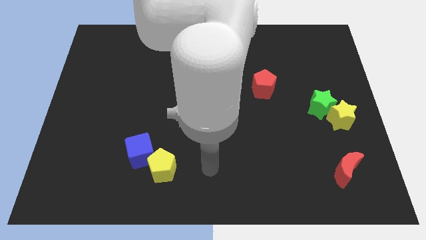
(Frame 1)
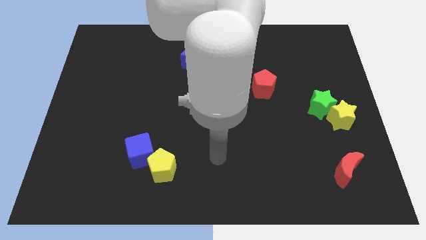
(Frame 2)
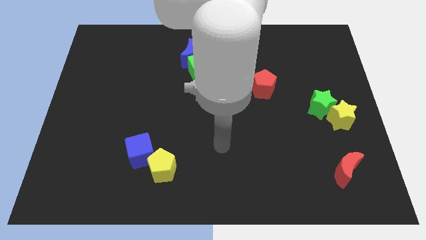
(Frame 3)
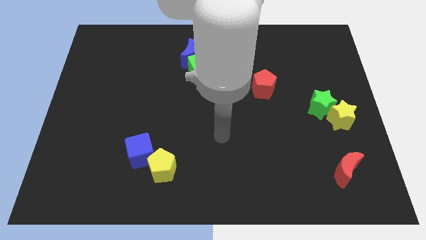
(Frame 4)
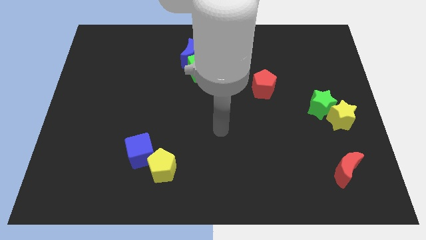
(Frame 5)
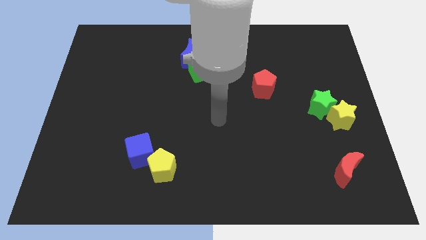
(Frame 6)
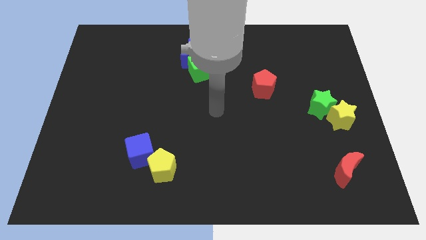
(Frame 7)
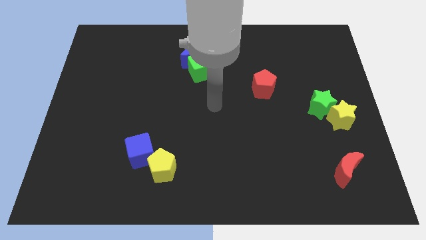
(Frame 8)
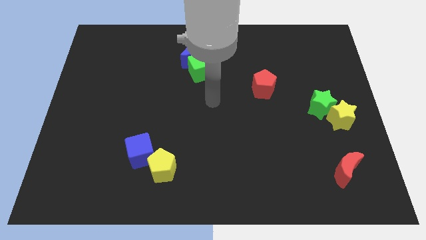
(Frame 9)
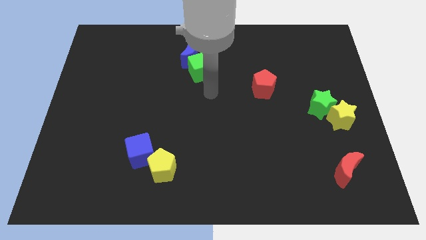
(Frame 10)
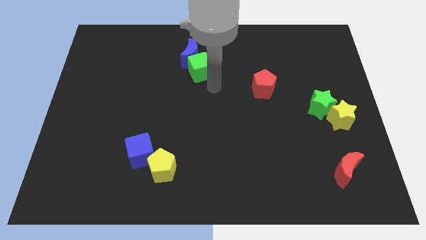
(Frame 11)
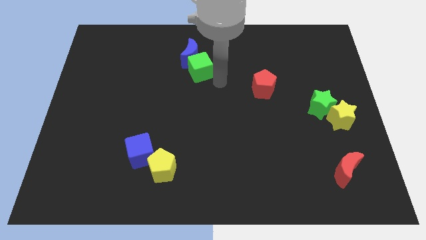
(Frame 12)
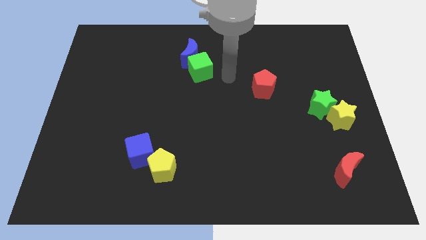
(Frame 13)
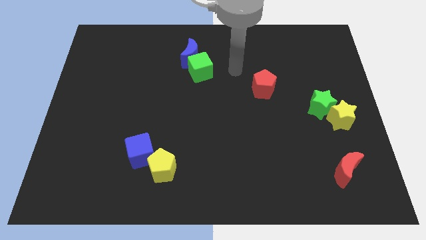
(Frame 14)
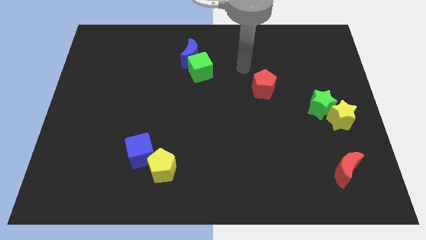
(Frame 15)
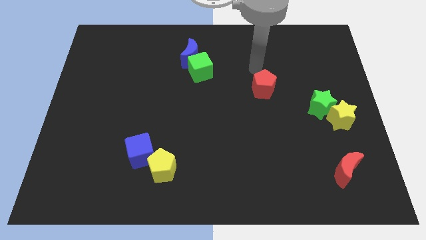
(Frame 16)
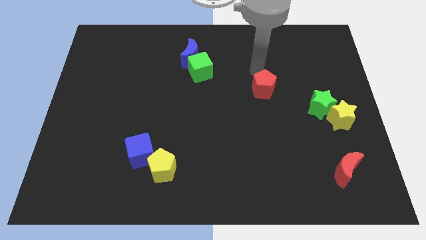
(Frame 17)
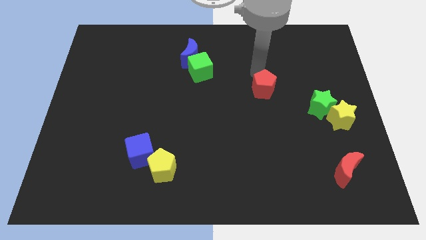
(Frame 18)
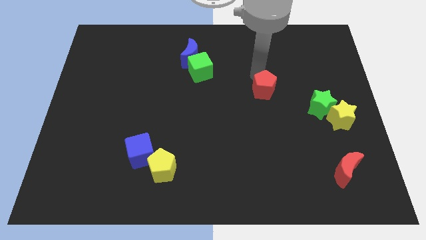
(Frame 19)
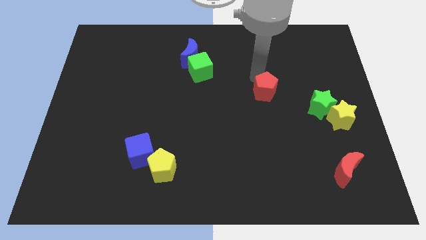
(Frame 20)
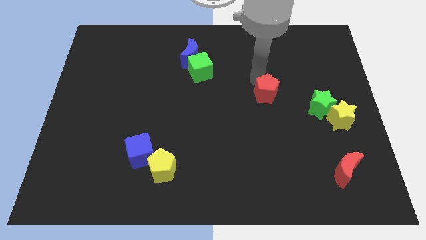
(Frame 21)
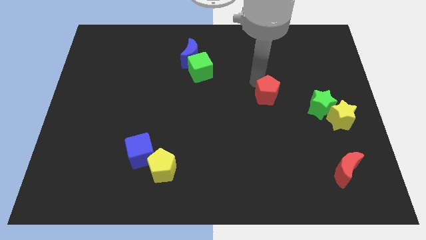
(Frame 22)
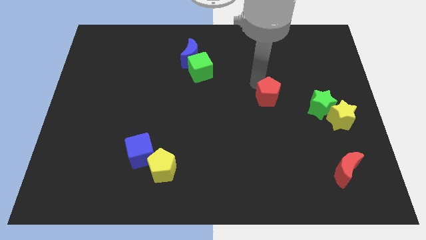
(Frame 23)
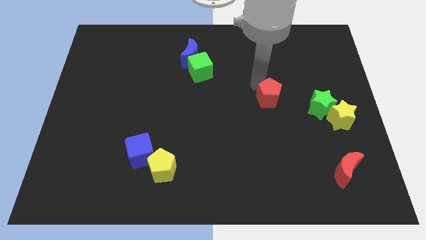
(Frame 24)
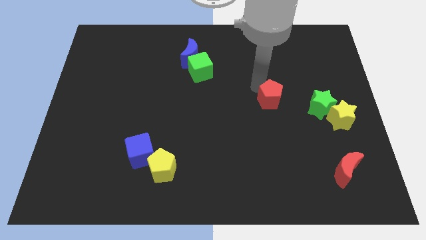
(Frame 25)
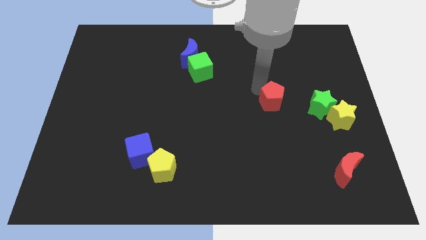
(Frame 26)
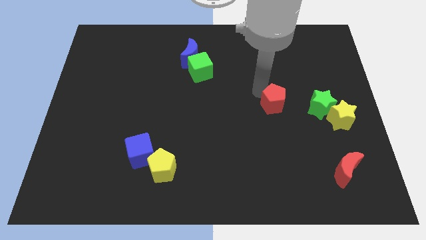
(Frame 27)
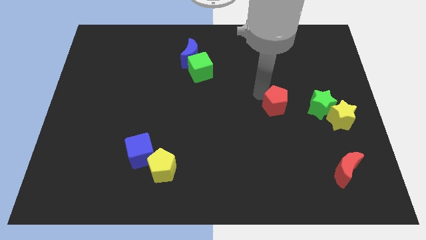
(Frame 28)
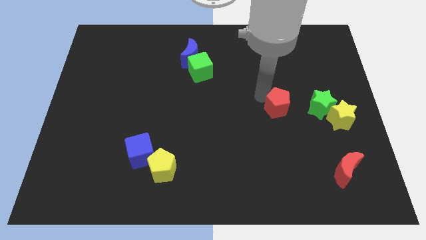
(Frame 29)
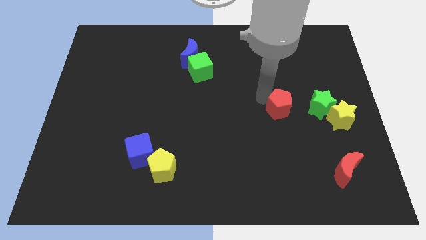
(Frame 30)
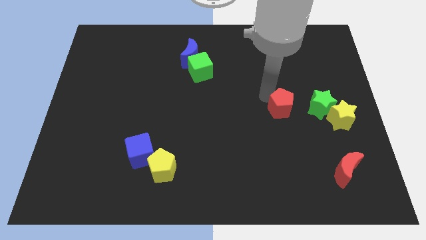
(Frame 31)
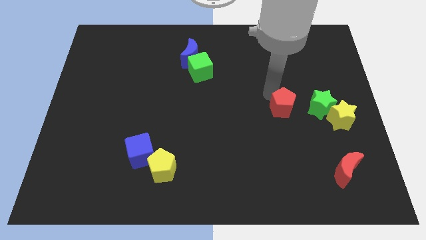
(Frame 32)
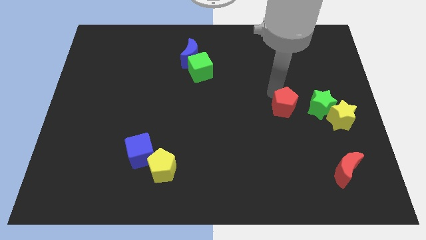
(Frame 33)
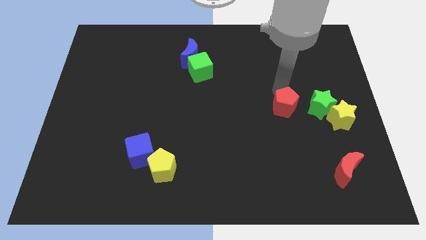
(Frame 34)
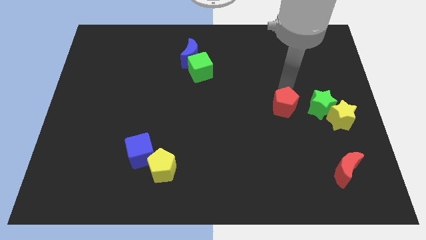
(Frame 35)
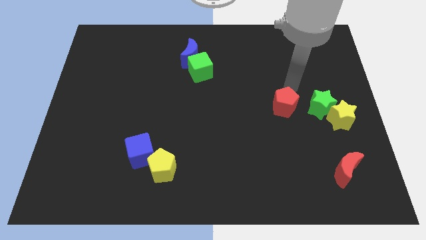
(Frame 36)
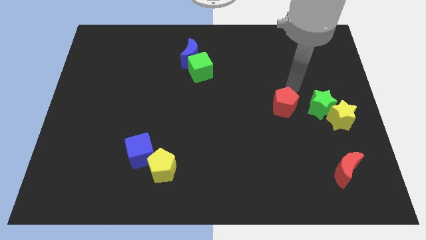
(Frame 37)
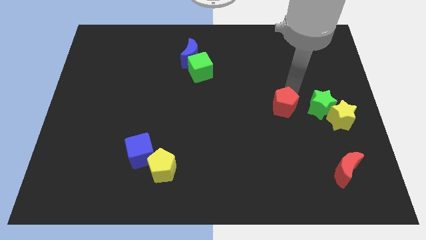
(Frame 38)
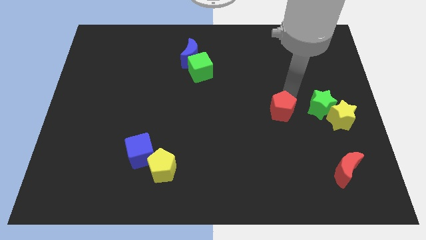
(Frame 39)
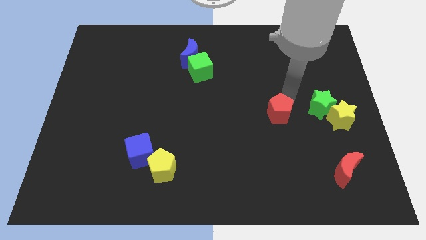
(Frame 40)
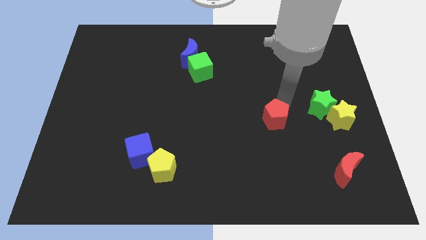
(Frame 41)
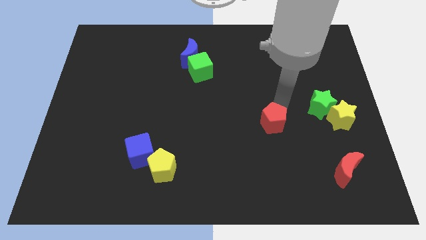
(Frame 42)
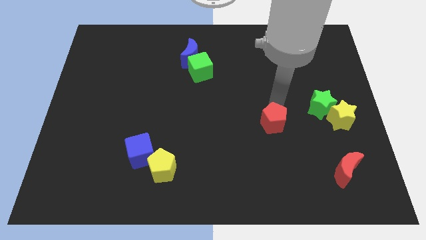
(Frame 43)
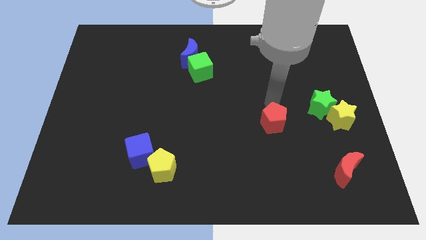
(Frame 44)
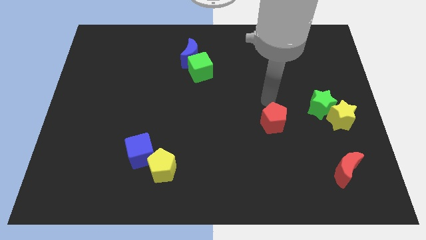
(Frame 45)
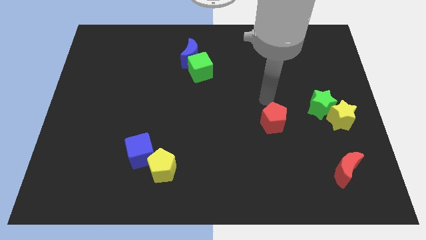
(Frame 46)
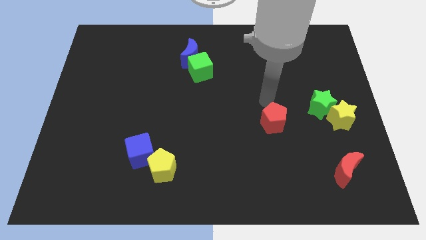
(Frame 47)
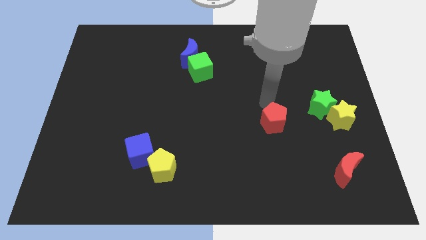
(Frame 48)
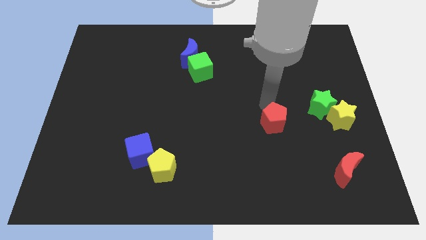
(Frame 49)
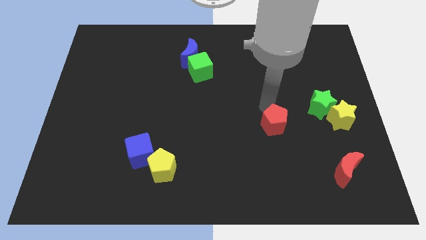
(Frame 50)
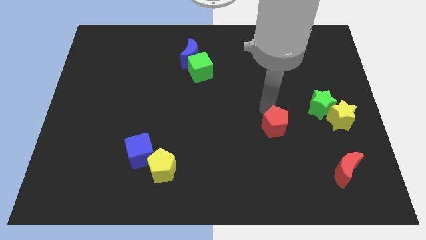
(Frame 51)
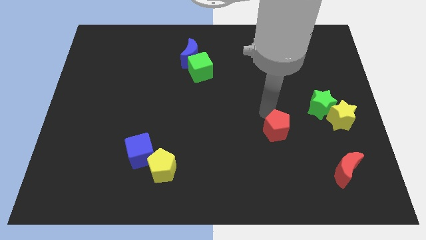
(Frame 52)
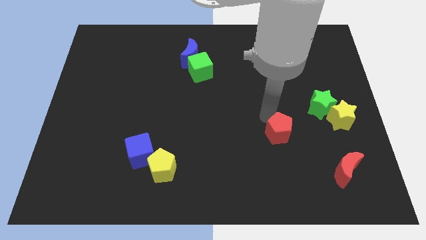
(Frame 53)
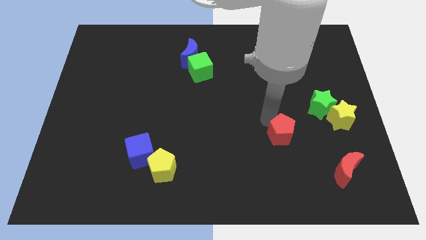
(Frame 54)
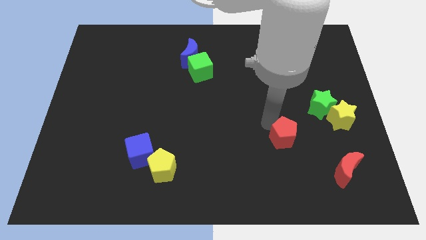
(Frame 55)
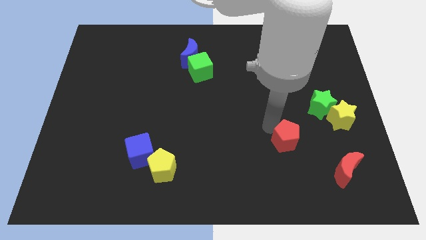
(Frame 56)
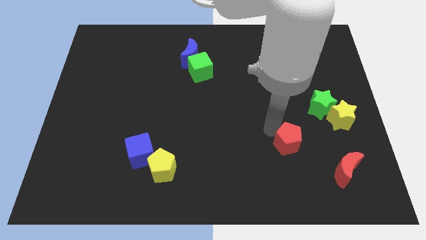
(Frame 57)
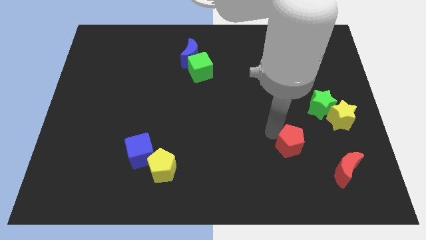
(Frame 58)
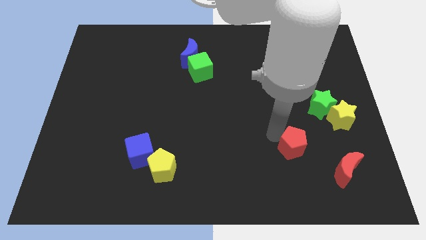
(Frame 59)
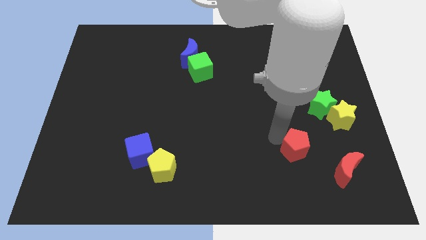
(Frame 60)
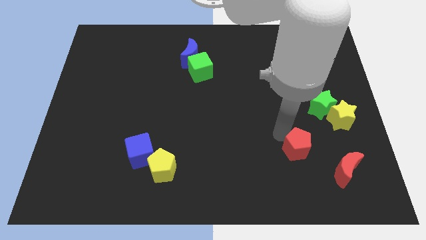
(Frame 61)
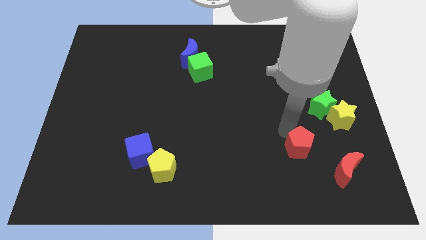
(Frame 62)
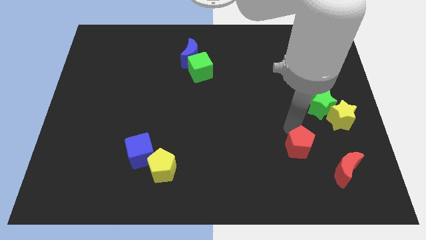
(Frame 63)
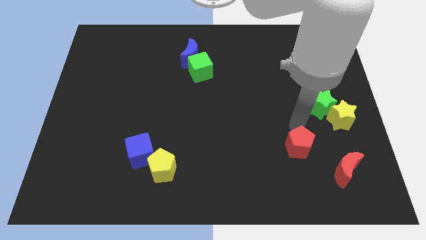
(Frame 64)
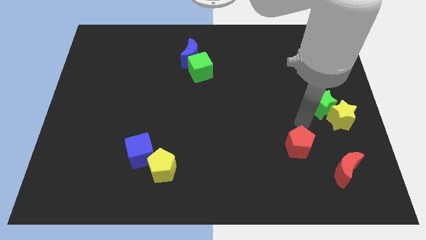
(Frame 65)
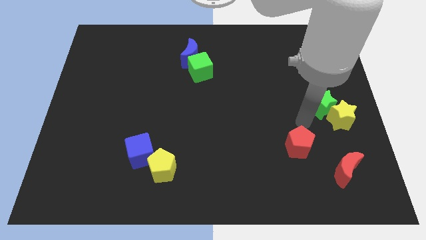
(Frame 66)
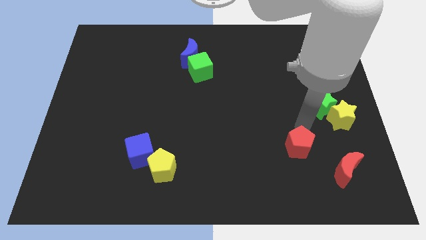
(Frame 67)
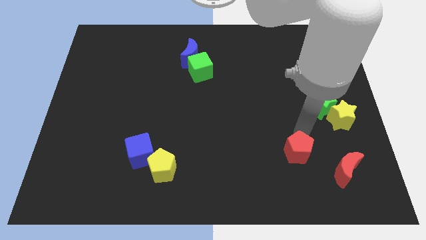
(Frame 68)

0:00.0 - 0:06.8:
push the red pentagon left of the red moon
